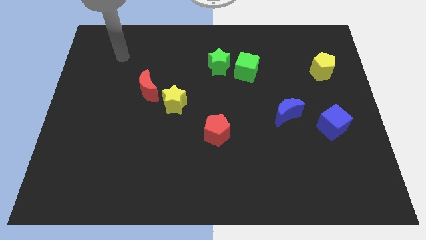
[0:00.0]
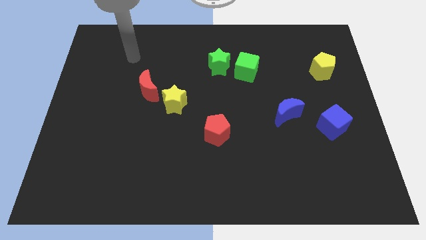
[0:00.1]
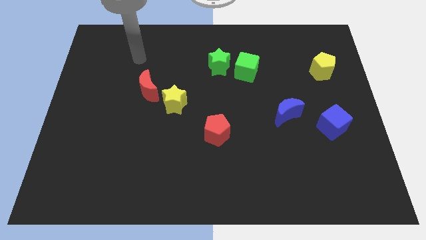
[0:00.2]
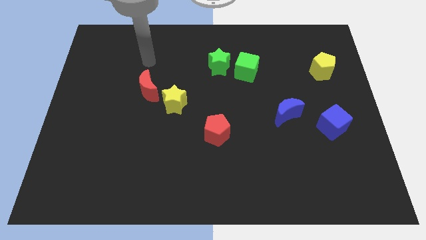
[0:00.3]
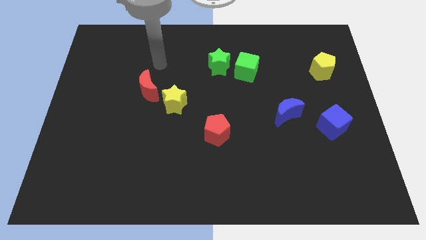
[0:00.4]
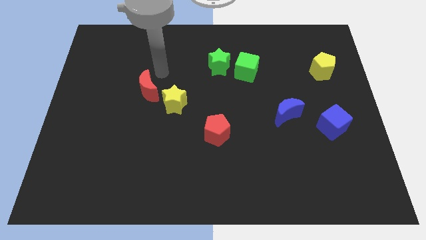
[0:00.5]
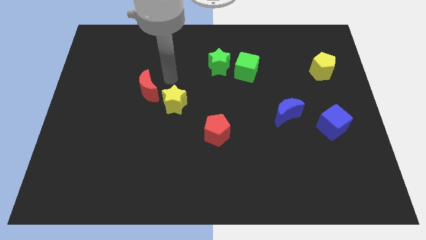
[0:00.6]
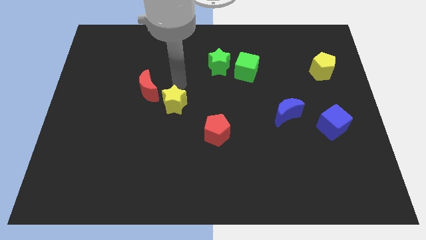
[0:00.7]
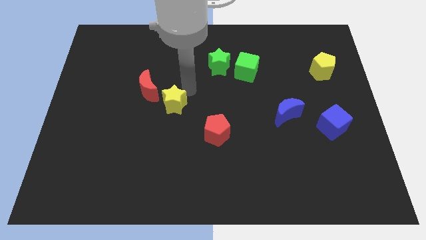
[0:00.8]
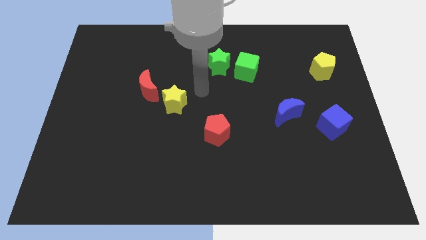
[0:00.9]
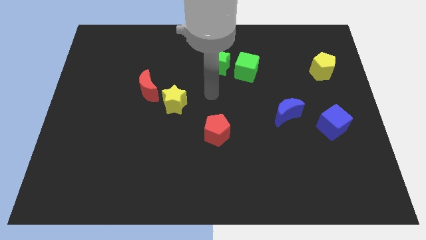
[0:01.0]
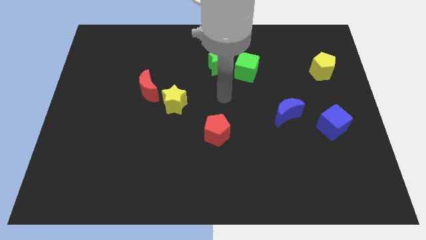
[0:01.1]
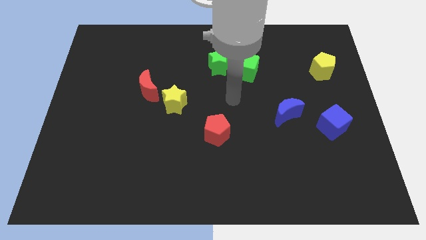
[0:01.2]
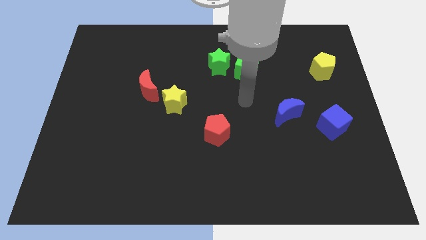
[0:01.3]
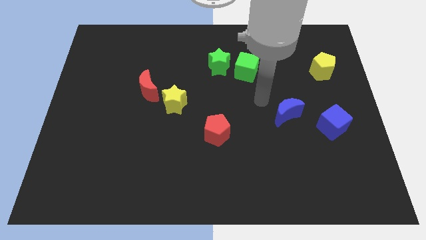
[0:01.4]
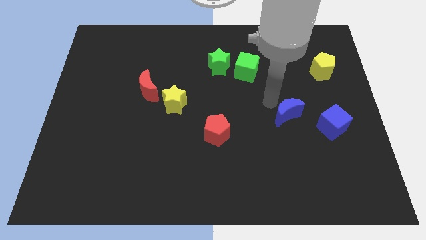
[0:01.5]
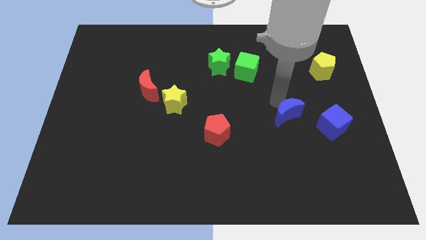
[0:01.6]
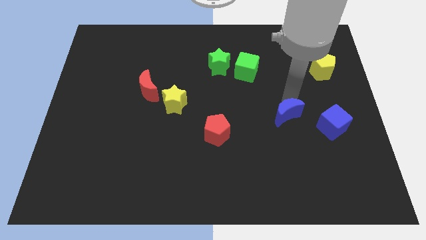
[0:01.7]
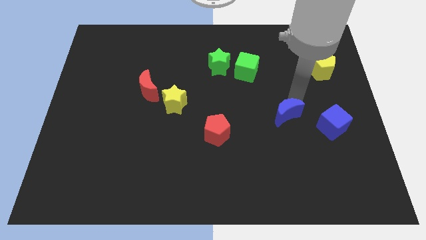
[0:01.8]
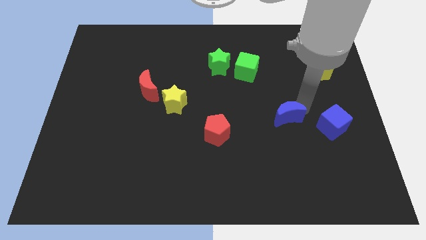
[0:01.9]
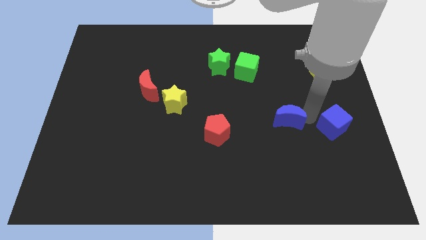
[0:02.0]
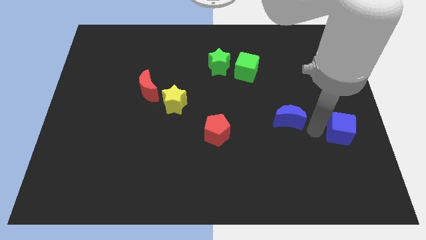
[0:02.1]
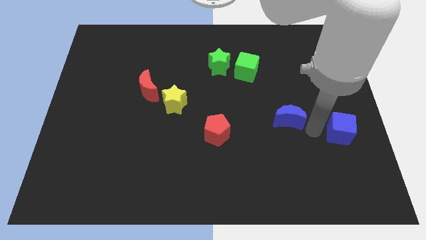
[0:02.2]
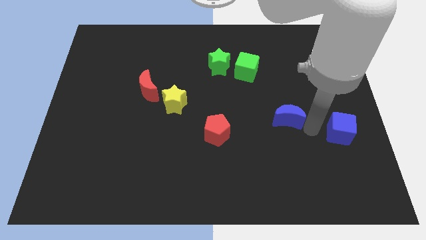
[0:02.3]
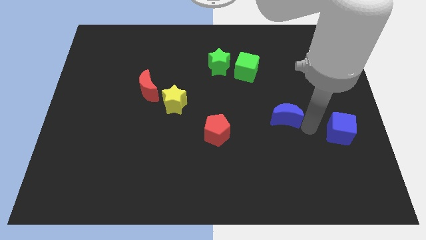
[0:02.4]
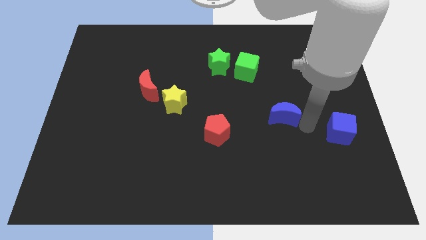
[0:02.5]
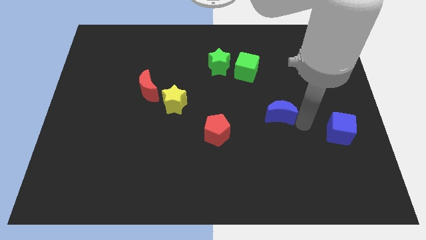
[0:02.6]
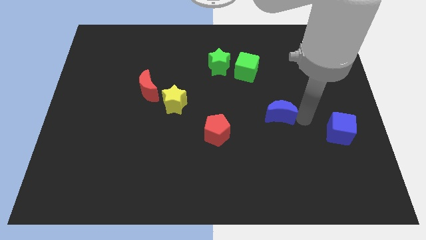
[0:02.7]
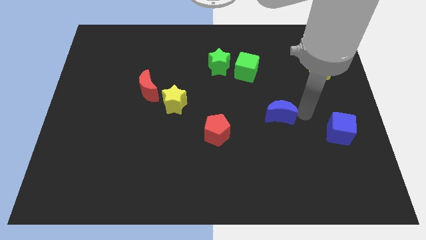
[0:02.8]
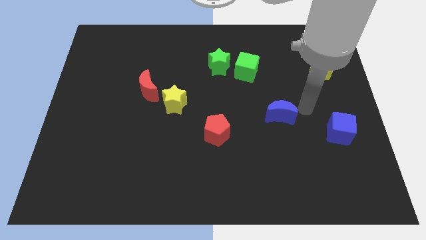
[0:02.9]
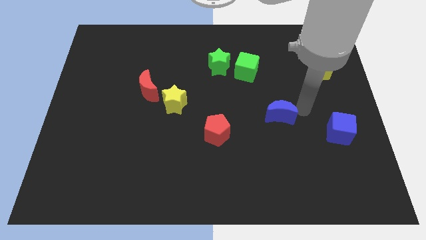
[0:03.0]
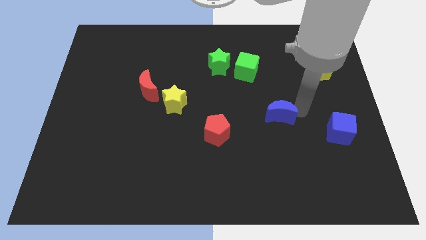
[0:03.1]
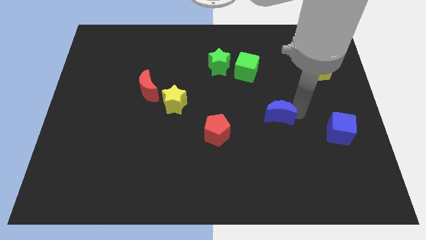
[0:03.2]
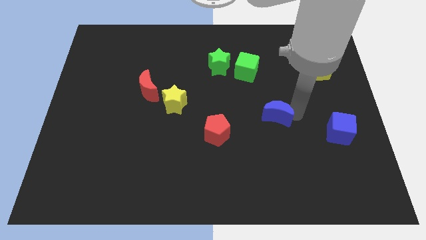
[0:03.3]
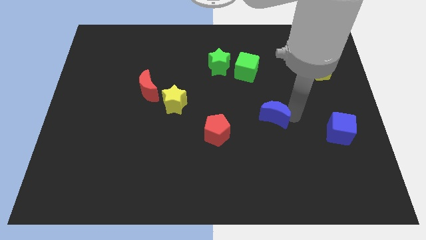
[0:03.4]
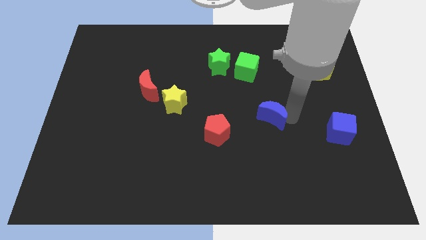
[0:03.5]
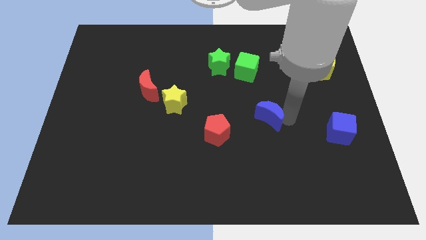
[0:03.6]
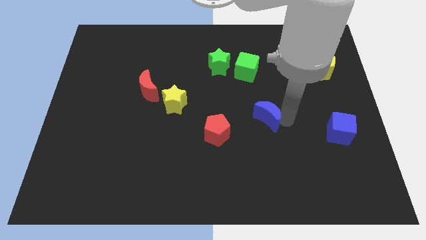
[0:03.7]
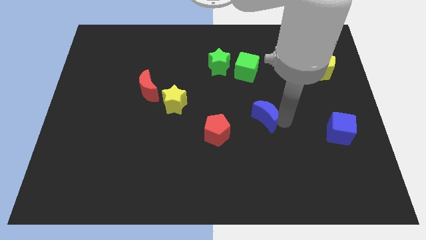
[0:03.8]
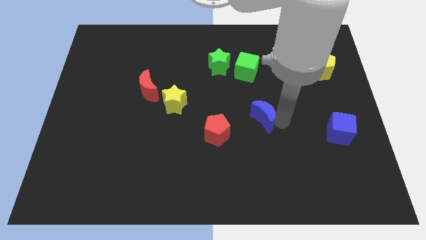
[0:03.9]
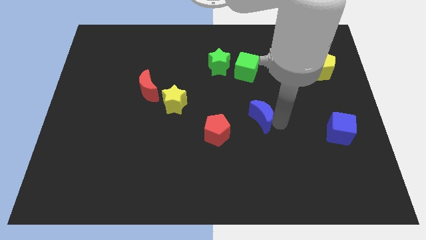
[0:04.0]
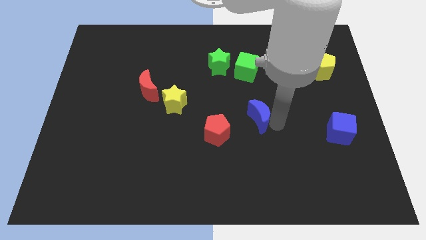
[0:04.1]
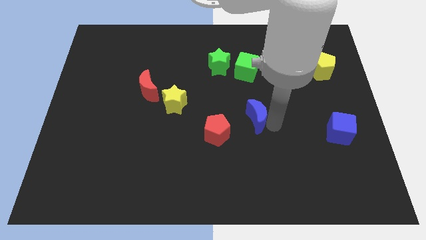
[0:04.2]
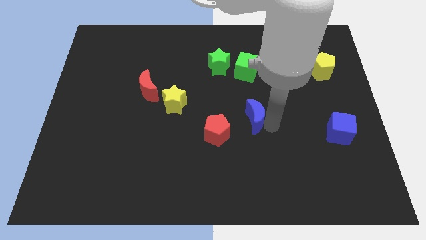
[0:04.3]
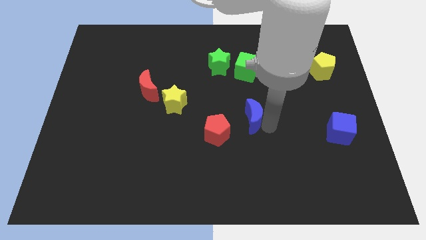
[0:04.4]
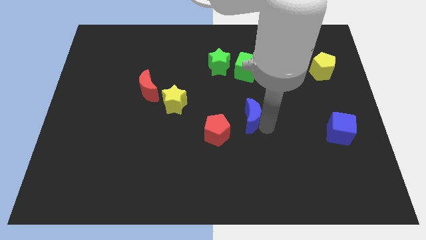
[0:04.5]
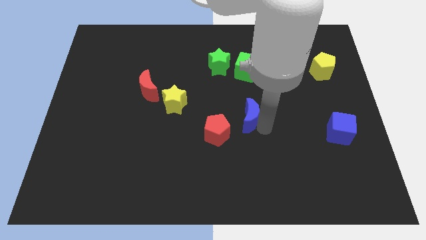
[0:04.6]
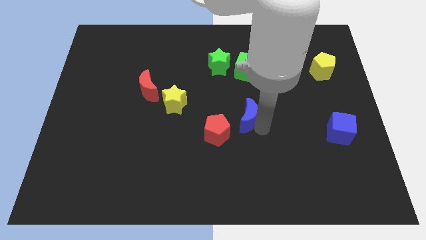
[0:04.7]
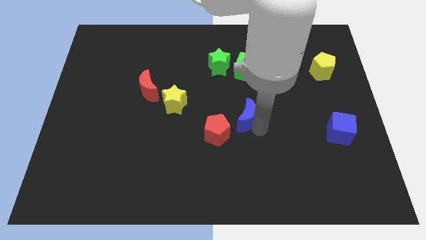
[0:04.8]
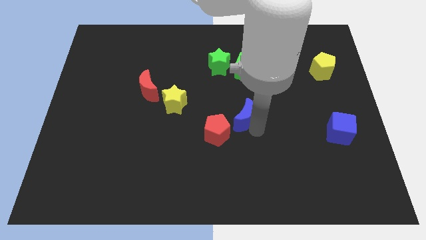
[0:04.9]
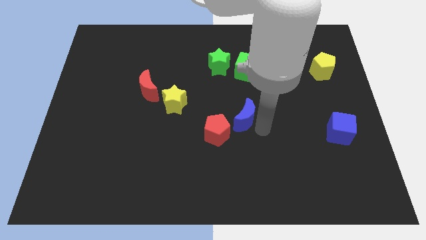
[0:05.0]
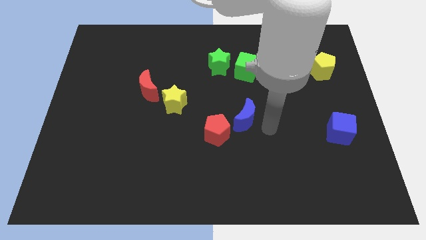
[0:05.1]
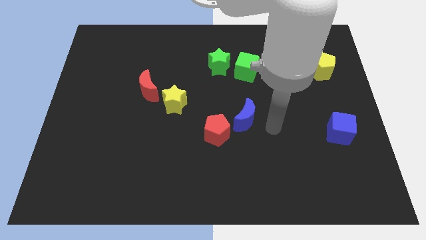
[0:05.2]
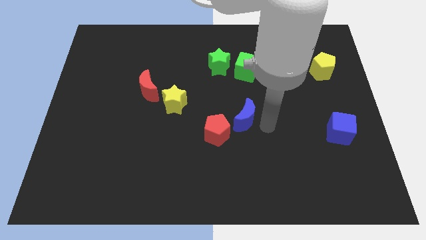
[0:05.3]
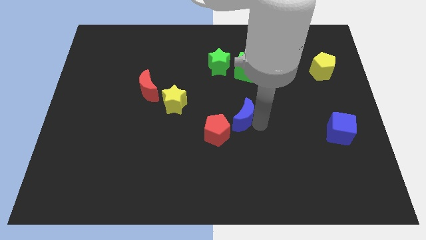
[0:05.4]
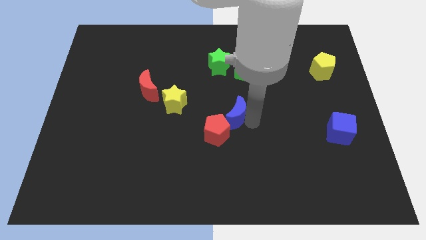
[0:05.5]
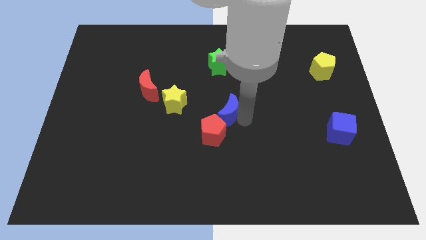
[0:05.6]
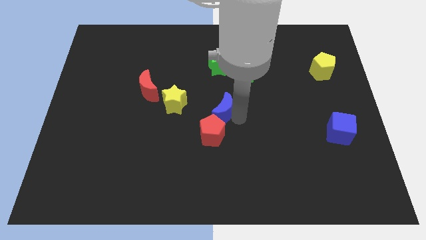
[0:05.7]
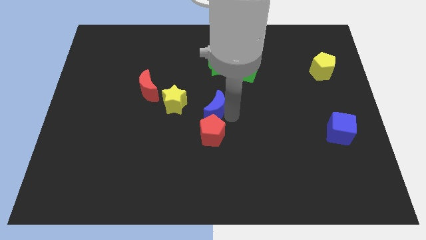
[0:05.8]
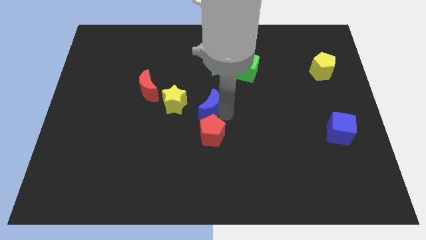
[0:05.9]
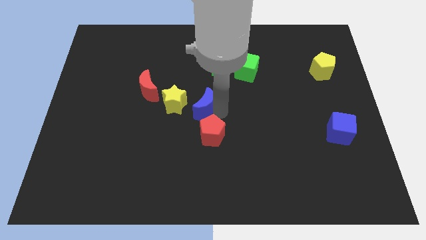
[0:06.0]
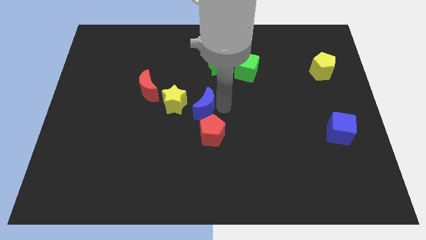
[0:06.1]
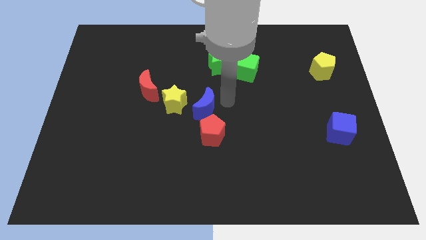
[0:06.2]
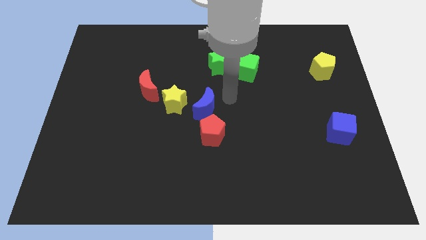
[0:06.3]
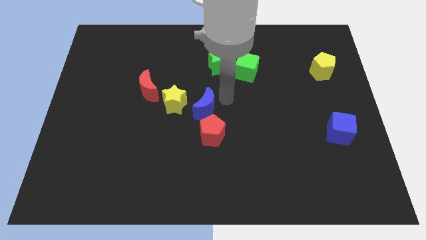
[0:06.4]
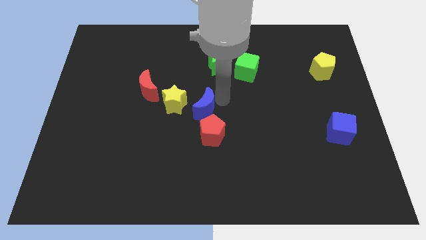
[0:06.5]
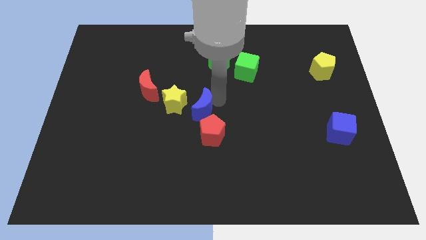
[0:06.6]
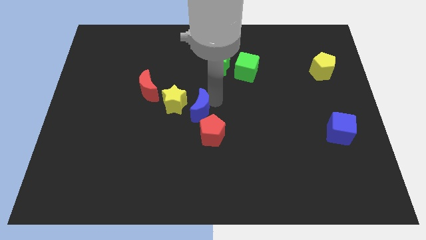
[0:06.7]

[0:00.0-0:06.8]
slide the blue moon left

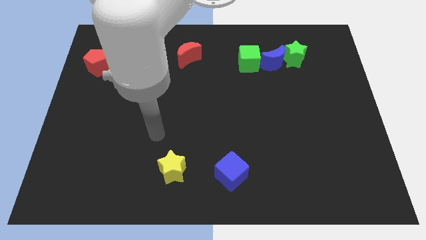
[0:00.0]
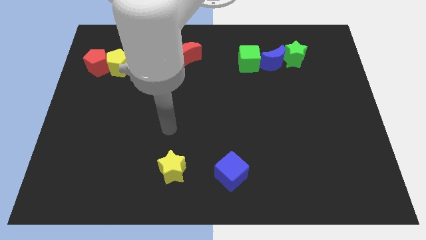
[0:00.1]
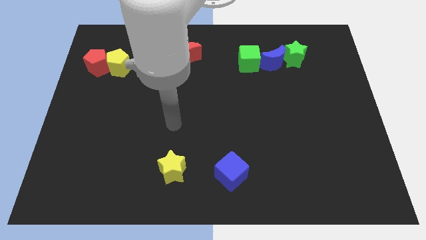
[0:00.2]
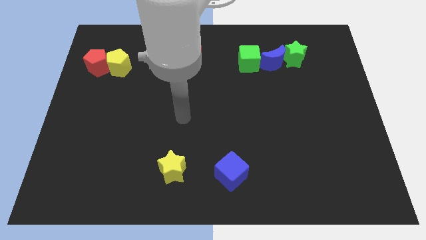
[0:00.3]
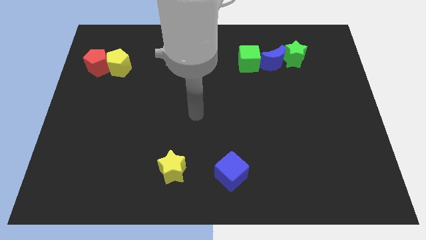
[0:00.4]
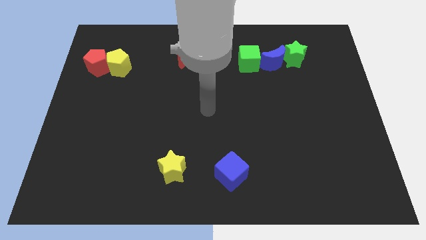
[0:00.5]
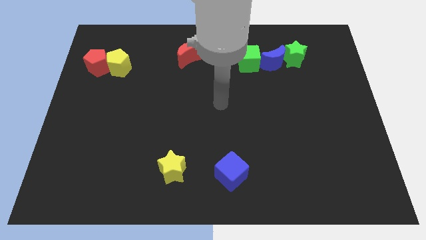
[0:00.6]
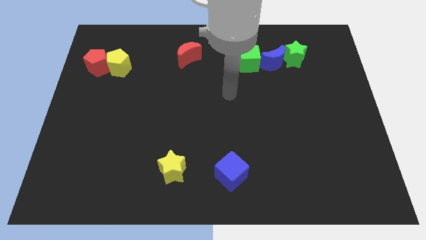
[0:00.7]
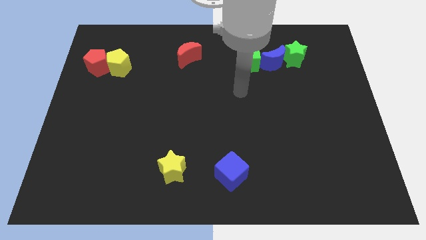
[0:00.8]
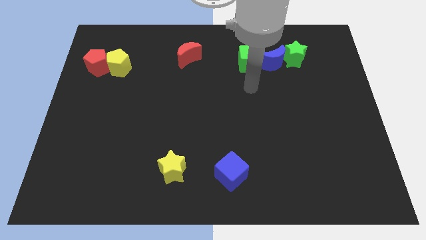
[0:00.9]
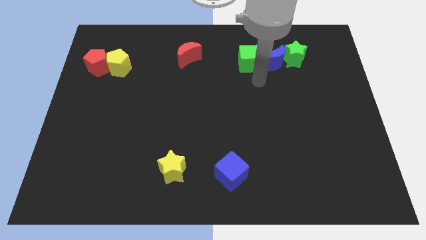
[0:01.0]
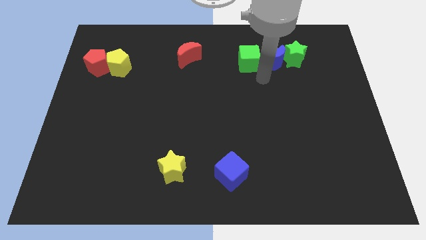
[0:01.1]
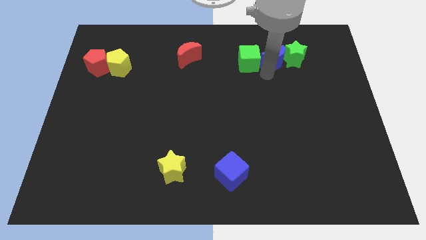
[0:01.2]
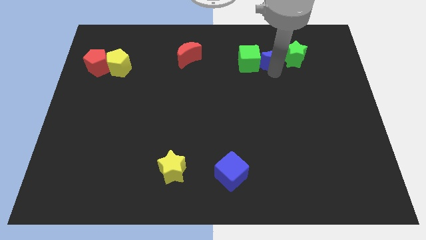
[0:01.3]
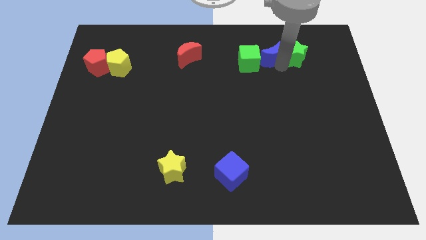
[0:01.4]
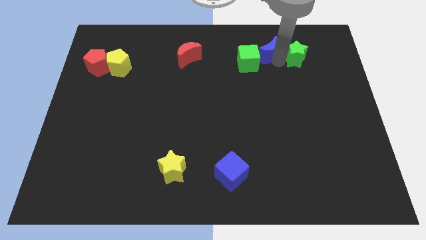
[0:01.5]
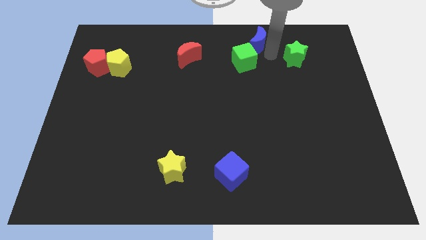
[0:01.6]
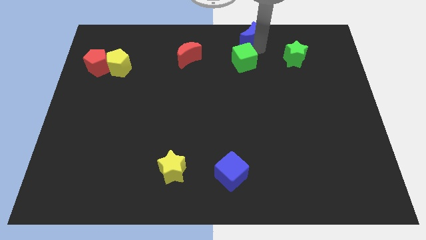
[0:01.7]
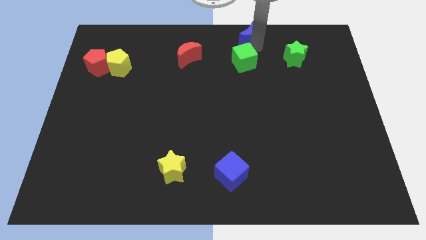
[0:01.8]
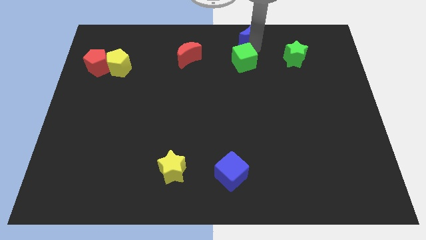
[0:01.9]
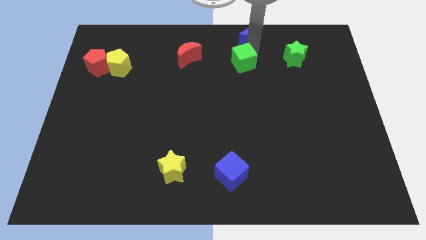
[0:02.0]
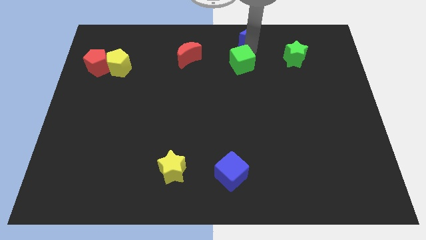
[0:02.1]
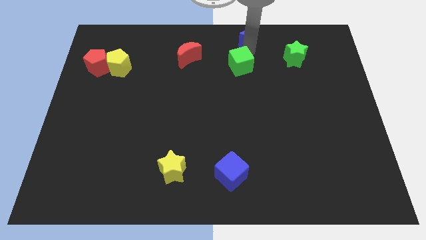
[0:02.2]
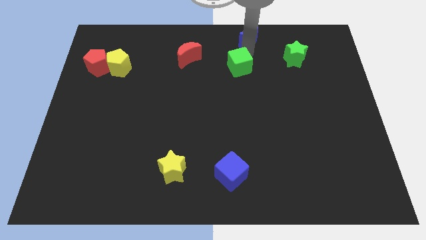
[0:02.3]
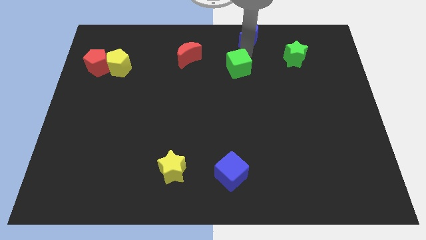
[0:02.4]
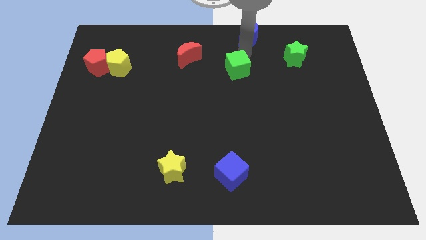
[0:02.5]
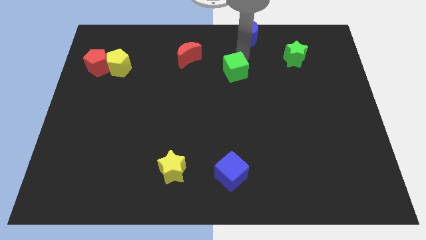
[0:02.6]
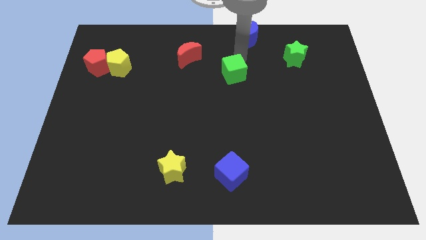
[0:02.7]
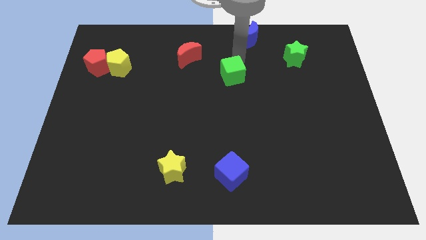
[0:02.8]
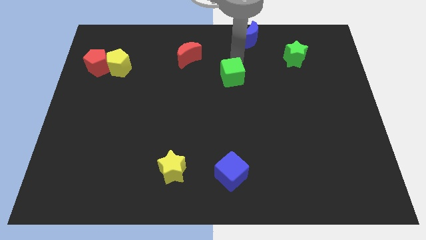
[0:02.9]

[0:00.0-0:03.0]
push the green cube downwards and left diagonally a bit
